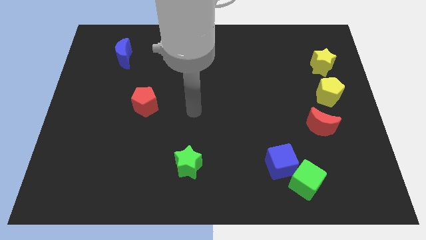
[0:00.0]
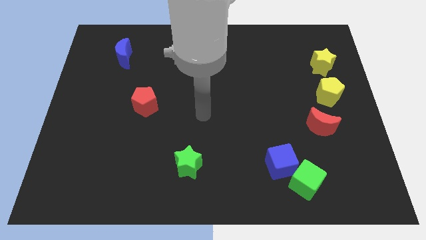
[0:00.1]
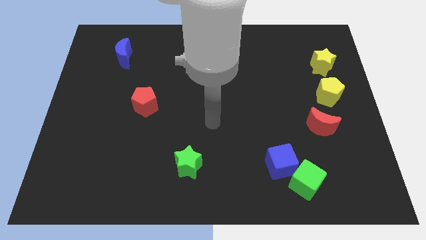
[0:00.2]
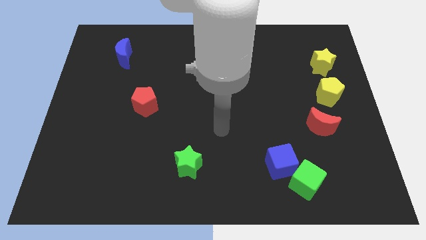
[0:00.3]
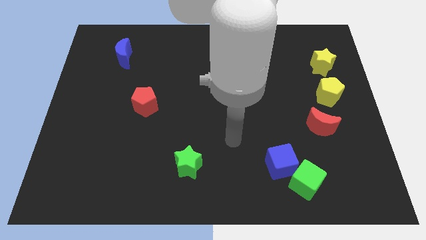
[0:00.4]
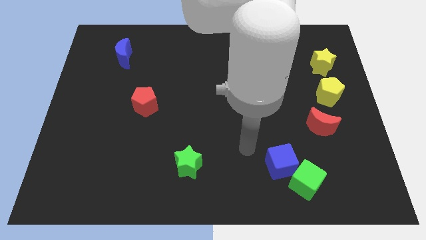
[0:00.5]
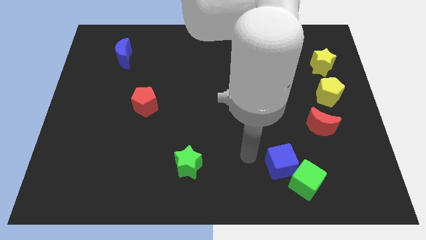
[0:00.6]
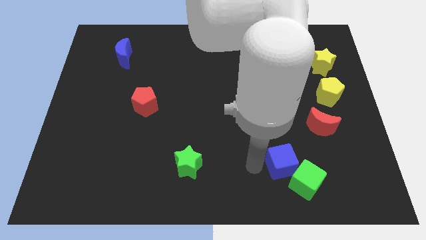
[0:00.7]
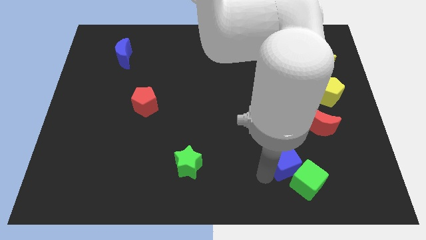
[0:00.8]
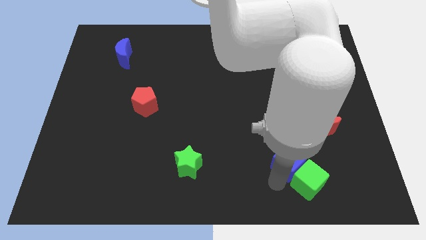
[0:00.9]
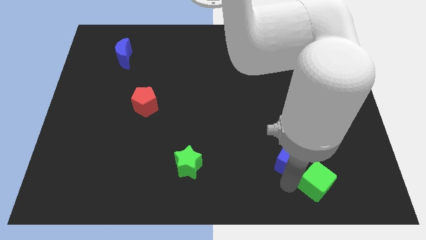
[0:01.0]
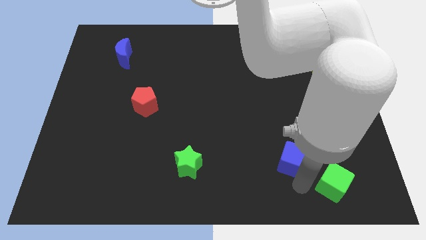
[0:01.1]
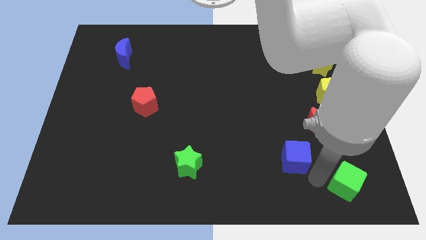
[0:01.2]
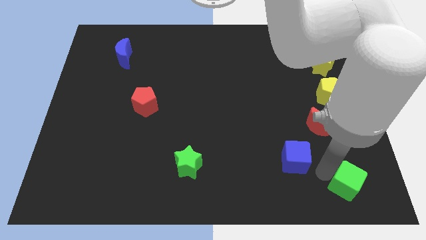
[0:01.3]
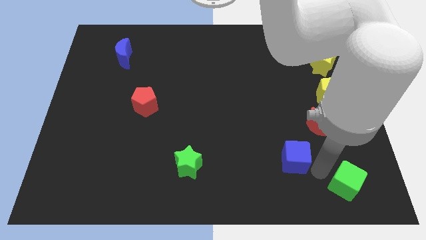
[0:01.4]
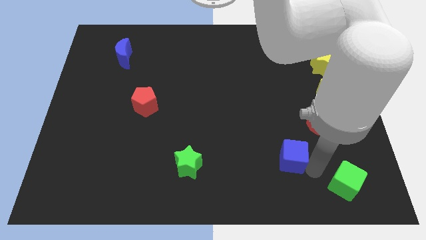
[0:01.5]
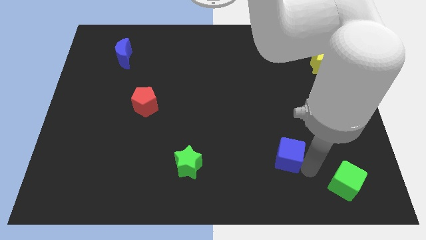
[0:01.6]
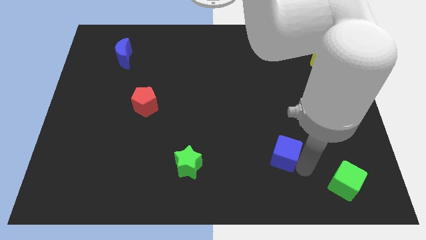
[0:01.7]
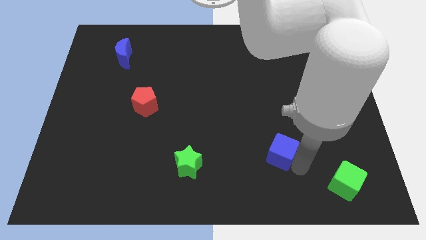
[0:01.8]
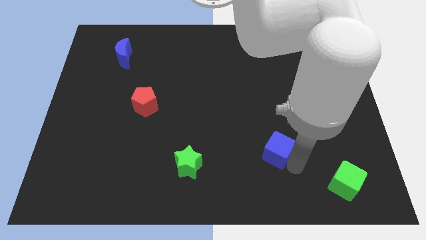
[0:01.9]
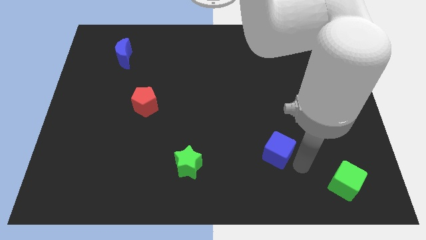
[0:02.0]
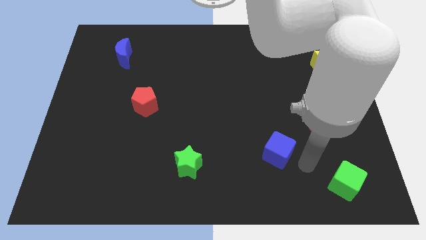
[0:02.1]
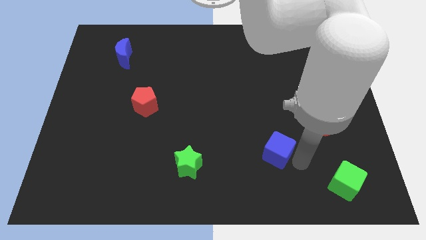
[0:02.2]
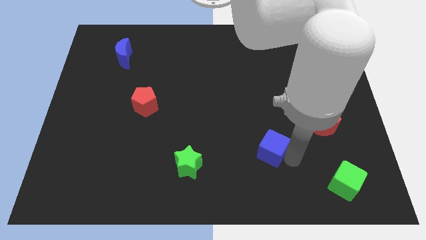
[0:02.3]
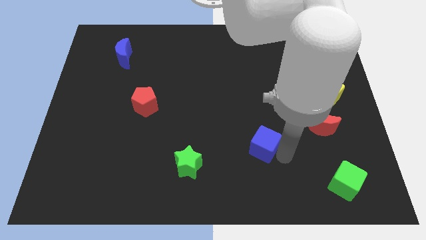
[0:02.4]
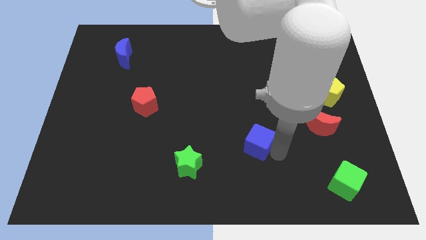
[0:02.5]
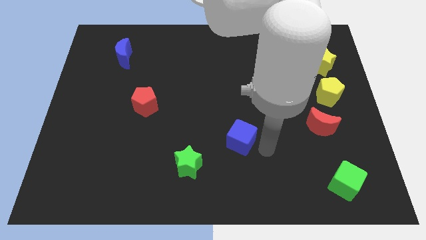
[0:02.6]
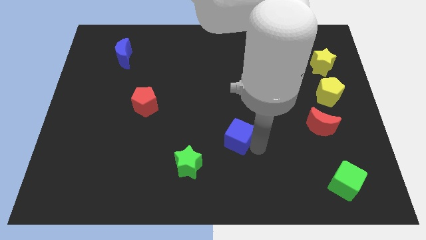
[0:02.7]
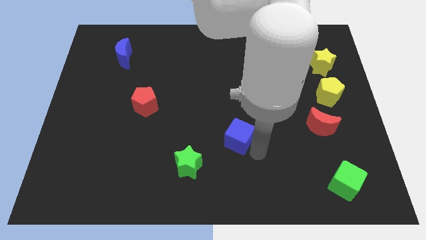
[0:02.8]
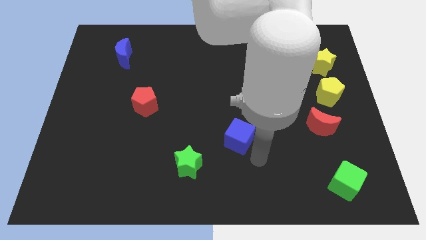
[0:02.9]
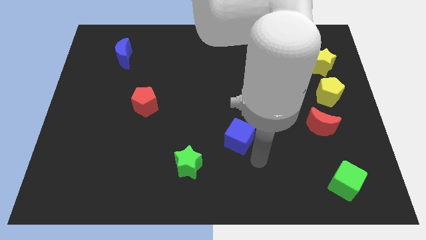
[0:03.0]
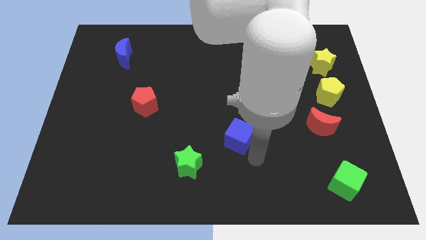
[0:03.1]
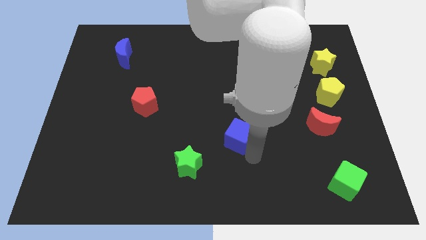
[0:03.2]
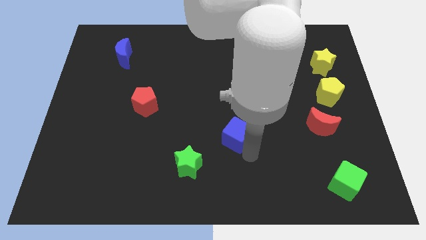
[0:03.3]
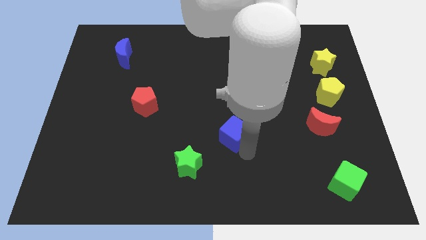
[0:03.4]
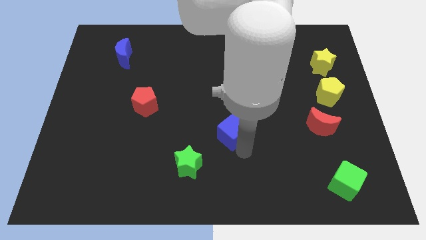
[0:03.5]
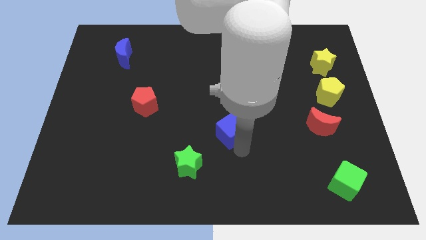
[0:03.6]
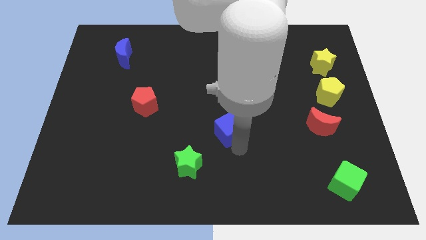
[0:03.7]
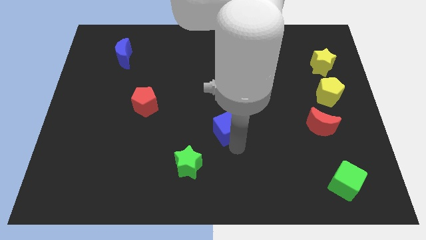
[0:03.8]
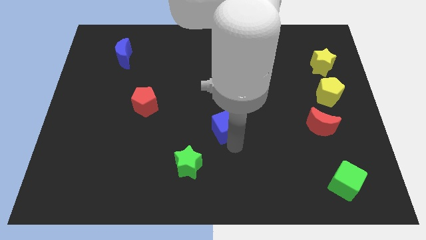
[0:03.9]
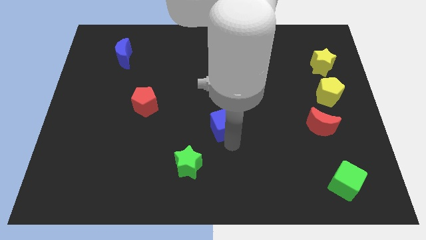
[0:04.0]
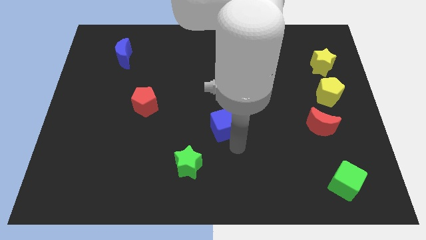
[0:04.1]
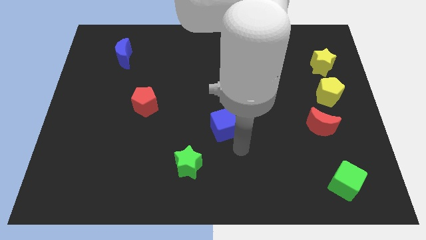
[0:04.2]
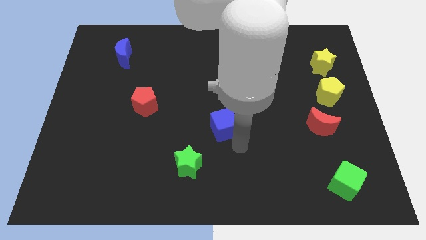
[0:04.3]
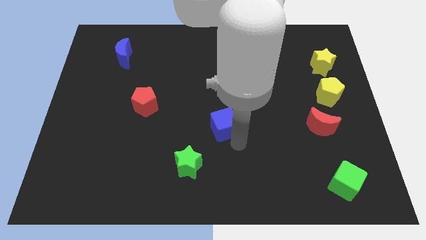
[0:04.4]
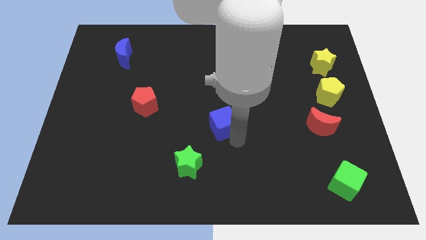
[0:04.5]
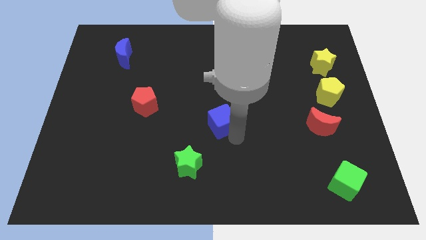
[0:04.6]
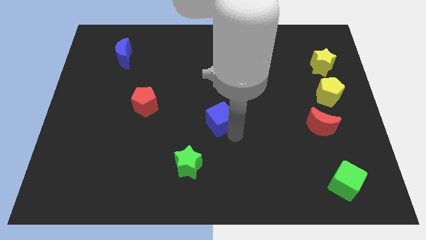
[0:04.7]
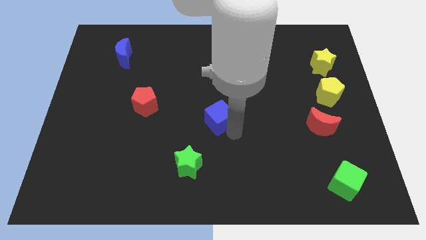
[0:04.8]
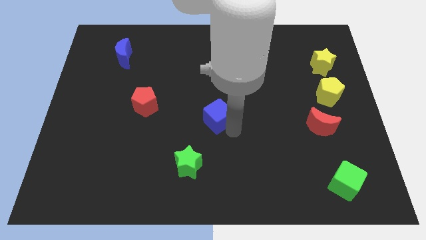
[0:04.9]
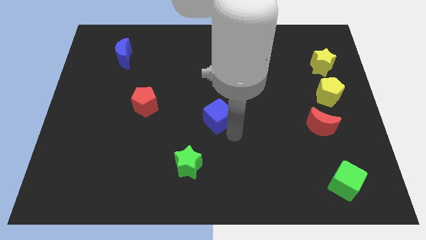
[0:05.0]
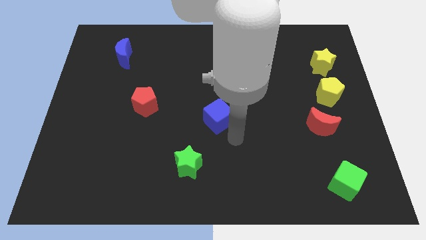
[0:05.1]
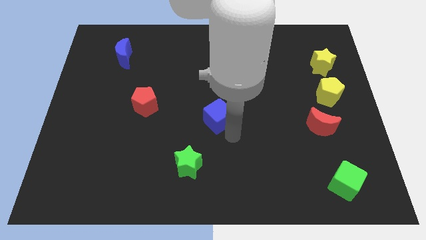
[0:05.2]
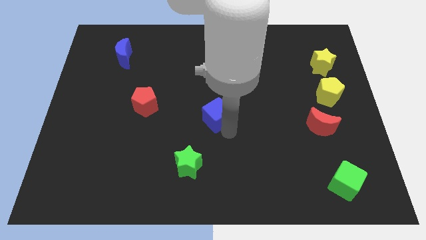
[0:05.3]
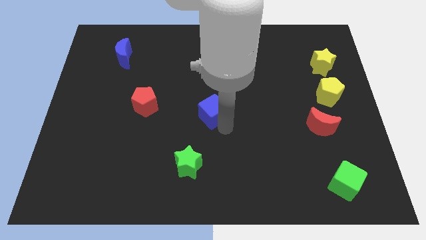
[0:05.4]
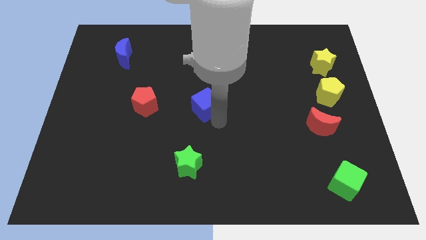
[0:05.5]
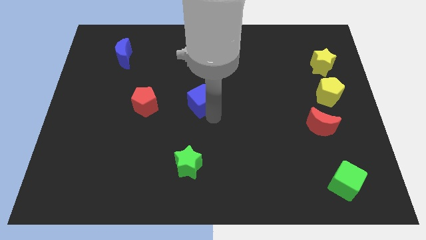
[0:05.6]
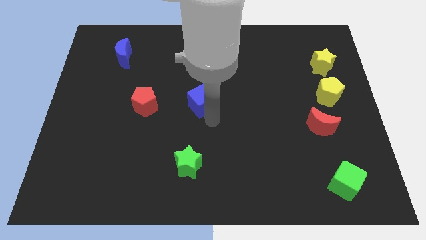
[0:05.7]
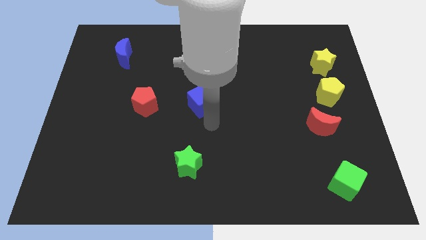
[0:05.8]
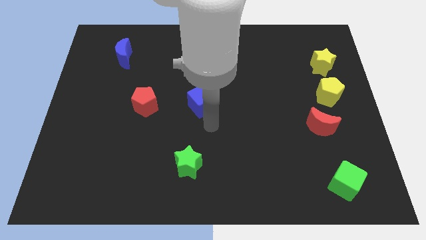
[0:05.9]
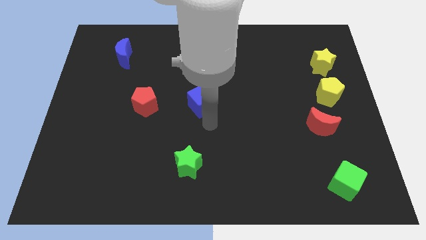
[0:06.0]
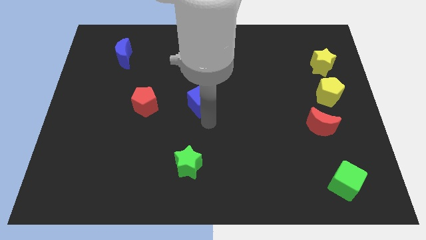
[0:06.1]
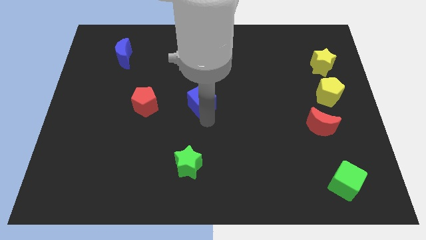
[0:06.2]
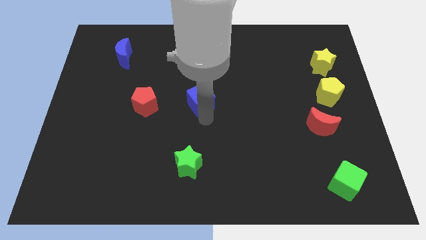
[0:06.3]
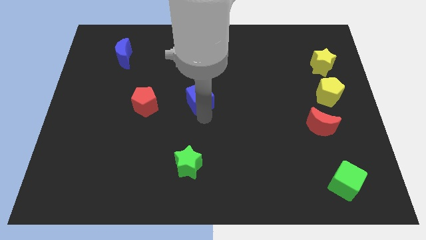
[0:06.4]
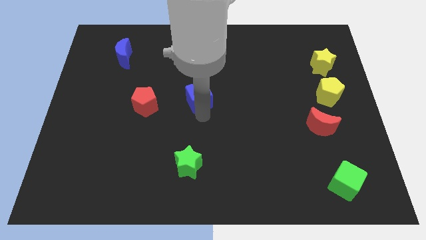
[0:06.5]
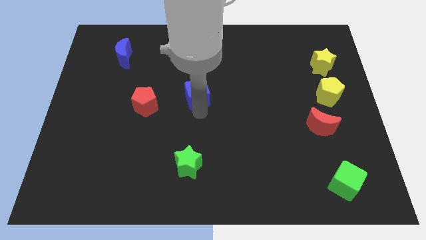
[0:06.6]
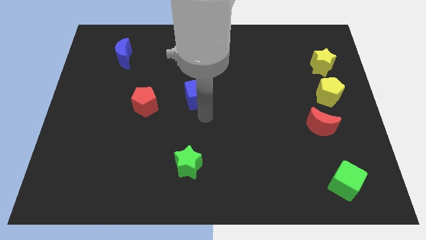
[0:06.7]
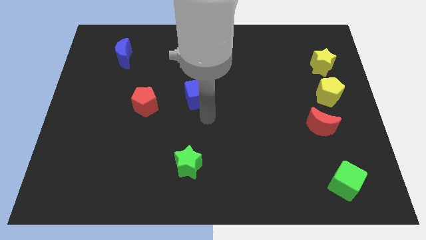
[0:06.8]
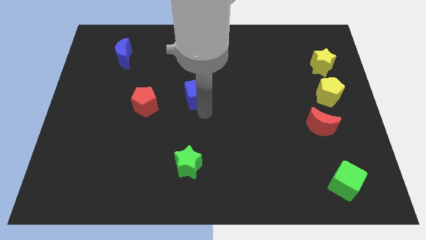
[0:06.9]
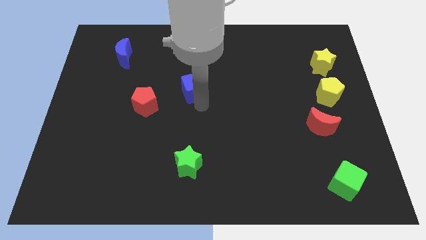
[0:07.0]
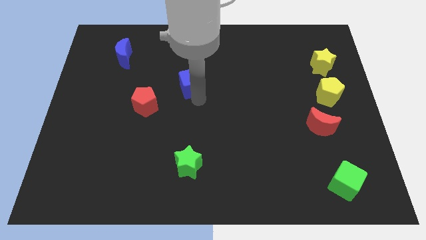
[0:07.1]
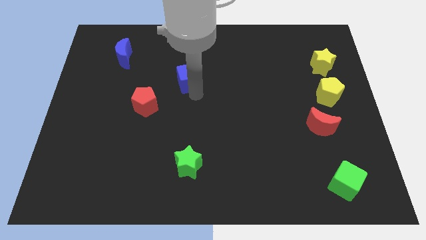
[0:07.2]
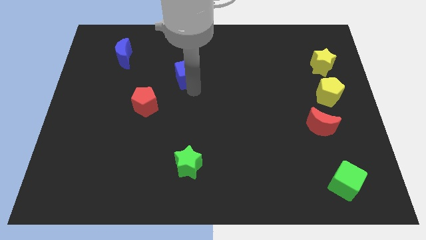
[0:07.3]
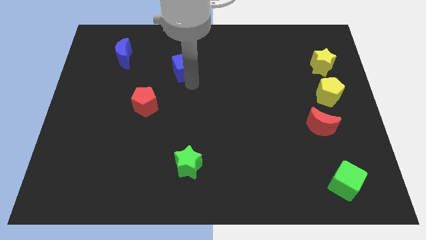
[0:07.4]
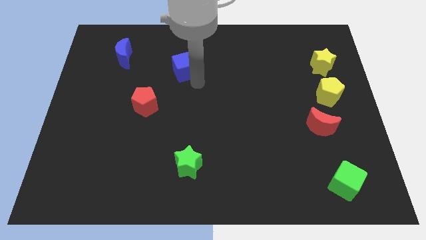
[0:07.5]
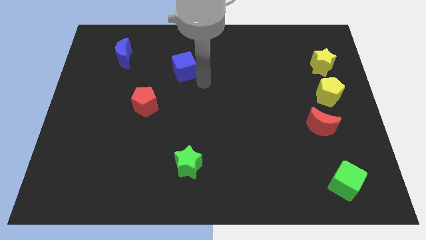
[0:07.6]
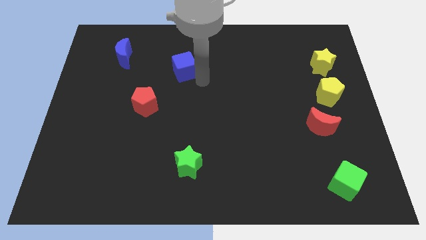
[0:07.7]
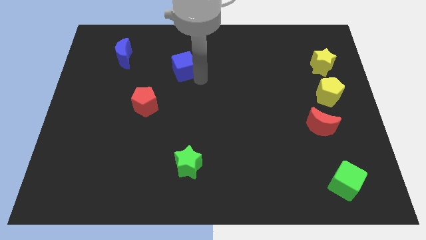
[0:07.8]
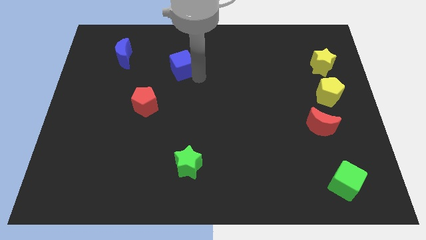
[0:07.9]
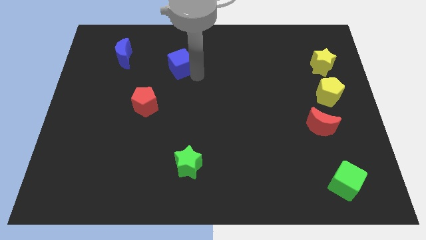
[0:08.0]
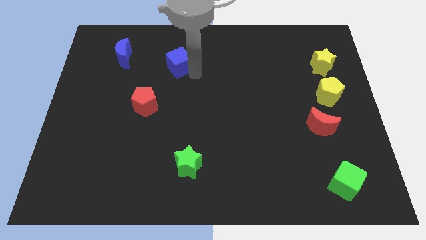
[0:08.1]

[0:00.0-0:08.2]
move the blue cube right of the blue moon
